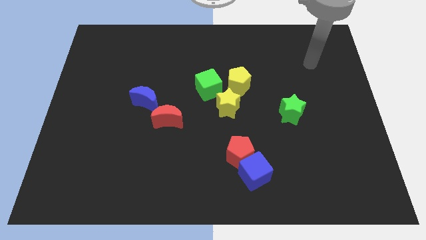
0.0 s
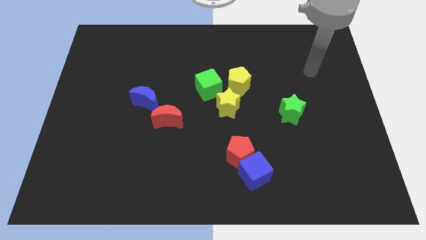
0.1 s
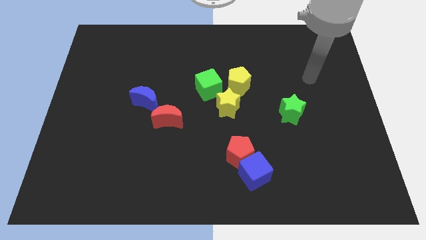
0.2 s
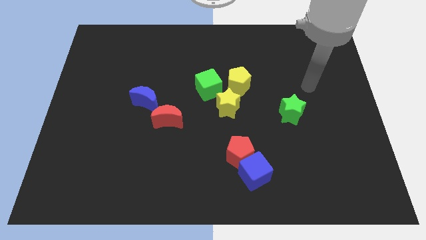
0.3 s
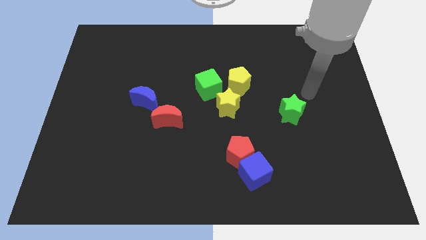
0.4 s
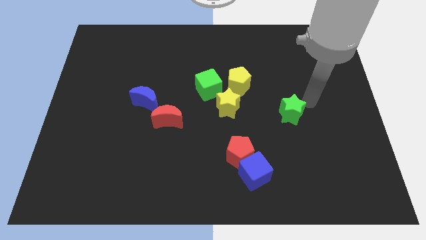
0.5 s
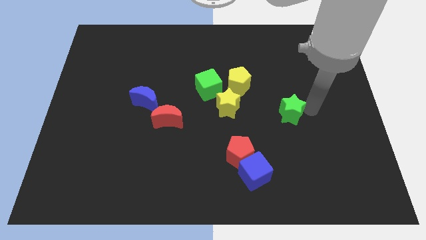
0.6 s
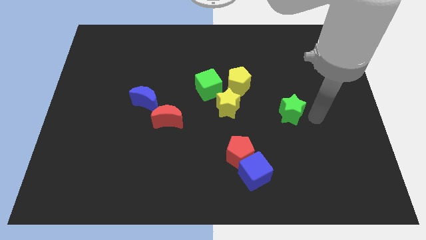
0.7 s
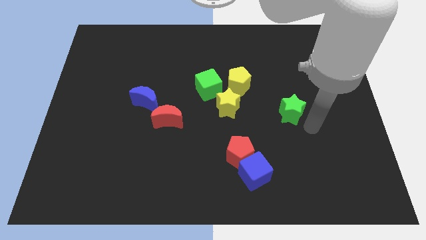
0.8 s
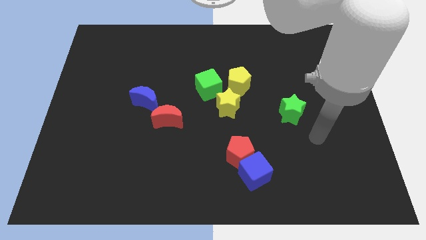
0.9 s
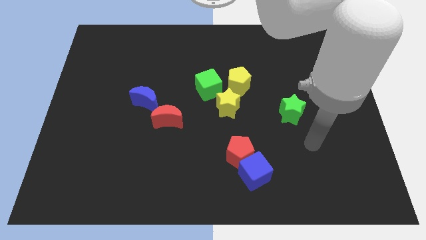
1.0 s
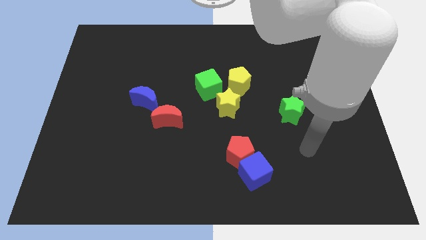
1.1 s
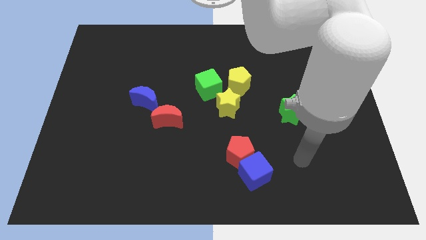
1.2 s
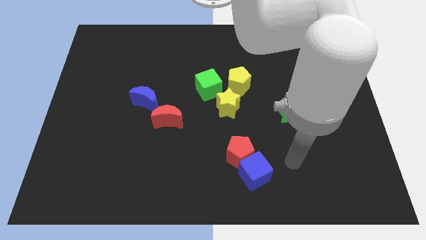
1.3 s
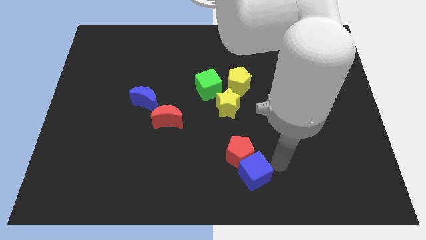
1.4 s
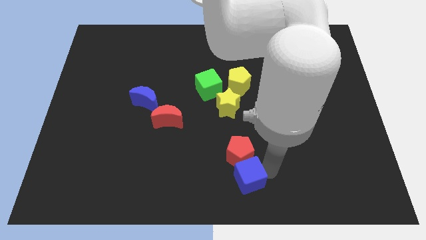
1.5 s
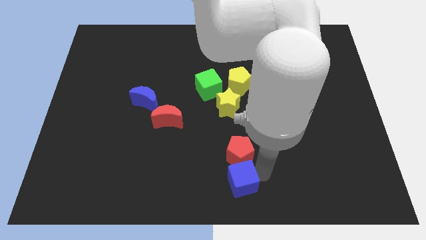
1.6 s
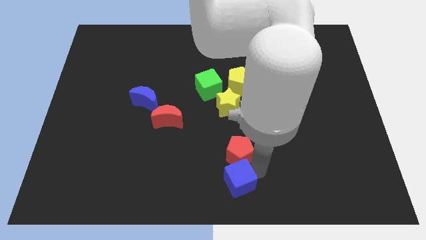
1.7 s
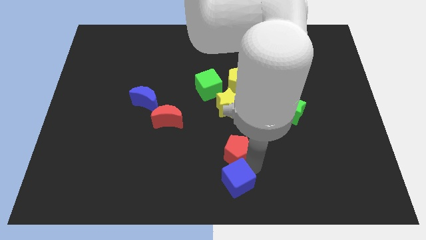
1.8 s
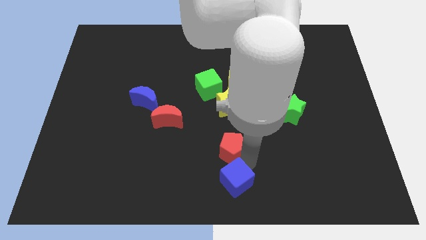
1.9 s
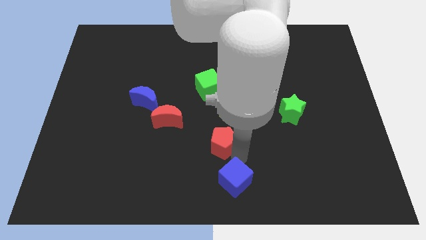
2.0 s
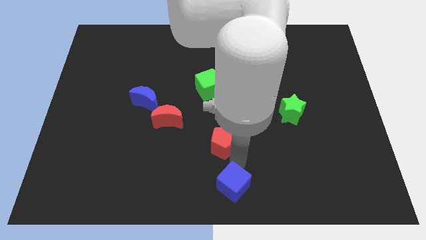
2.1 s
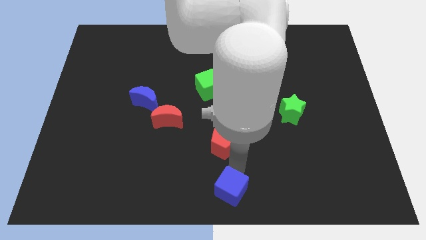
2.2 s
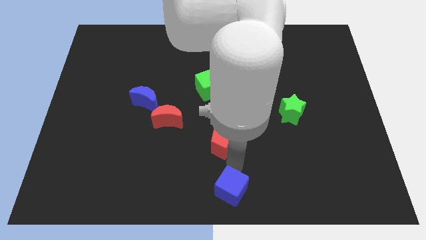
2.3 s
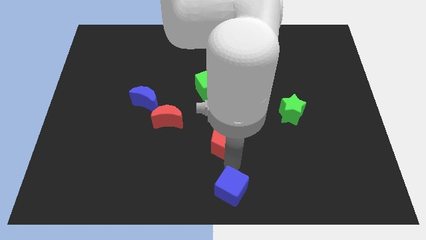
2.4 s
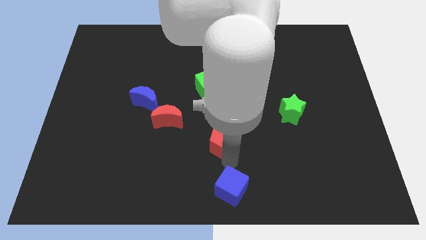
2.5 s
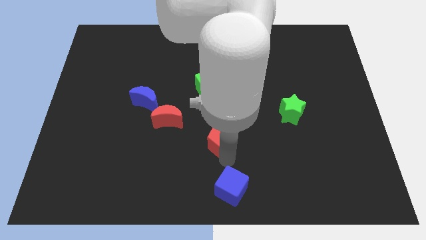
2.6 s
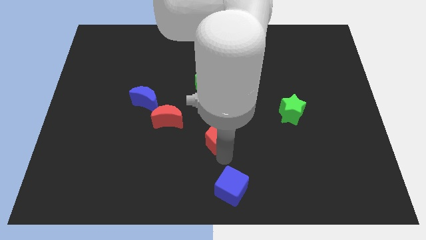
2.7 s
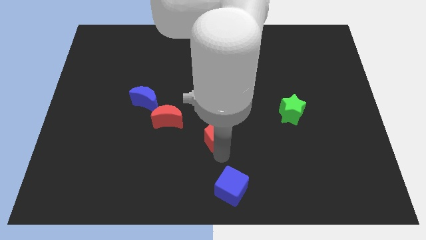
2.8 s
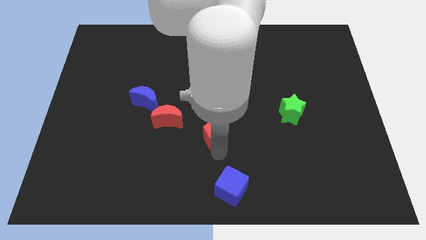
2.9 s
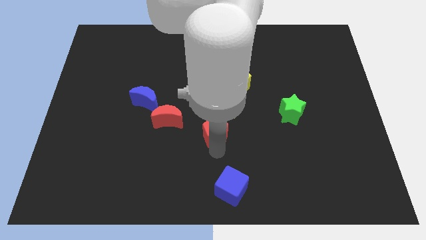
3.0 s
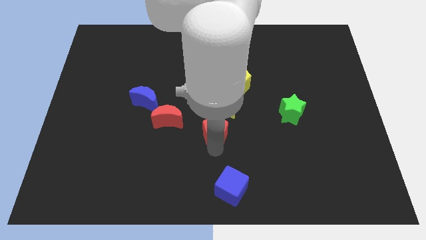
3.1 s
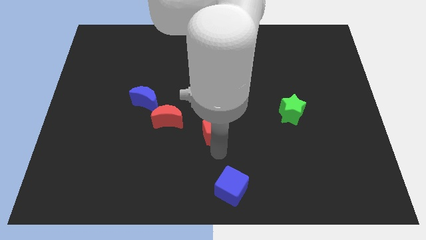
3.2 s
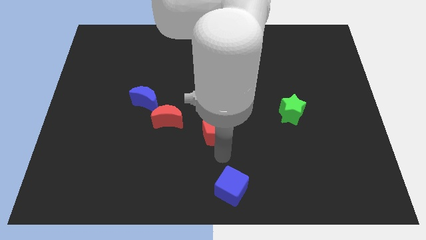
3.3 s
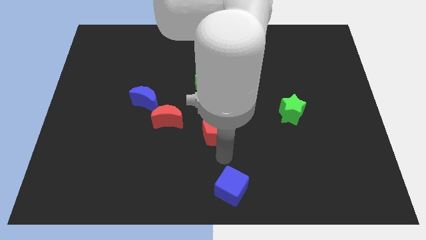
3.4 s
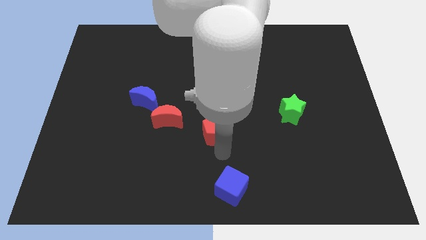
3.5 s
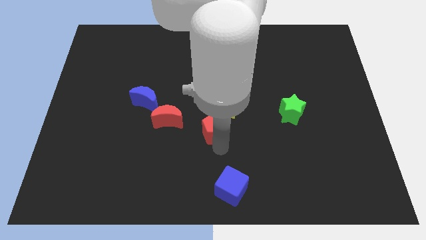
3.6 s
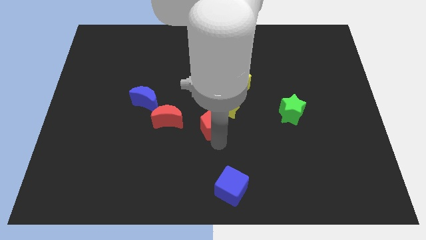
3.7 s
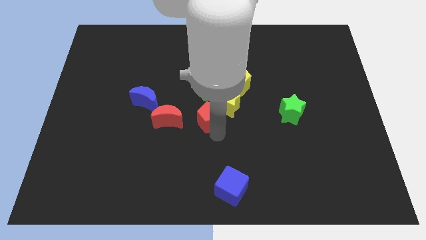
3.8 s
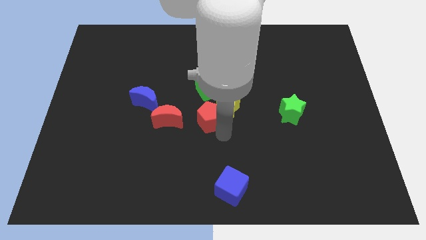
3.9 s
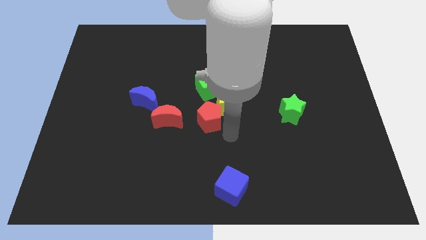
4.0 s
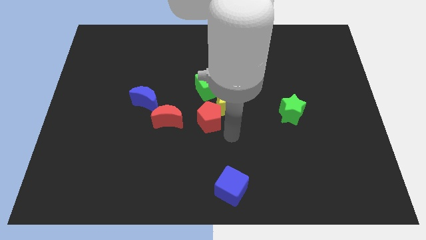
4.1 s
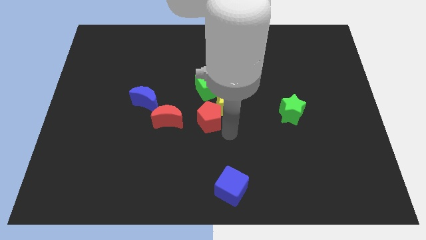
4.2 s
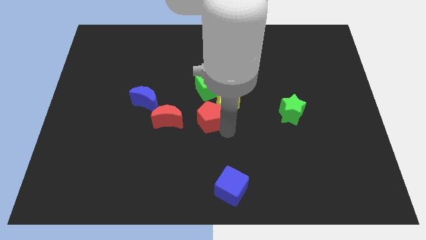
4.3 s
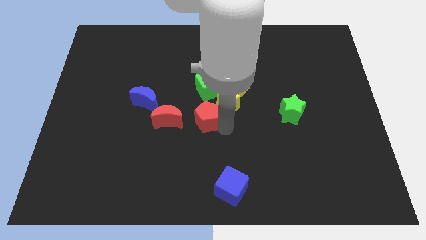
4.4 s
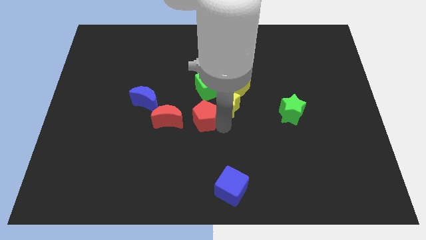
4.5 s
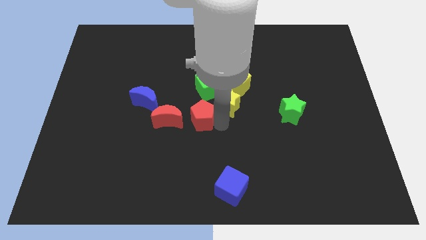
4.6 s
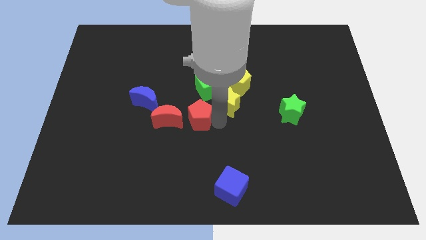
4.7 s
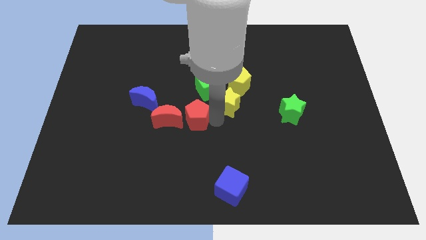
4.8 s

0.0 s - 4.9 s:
put the red pentagon to the bottom left of the green cube

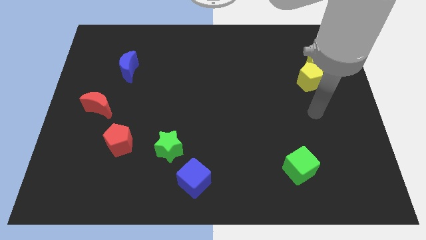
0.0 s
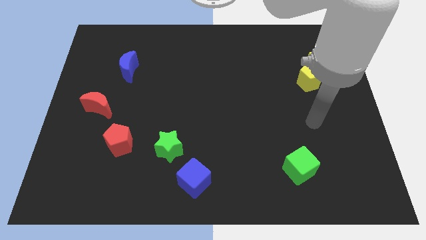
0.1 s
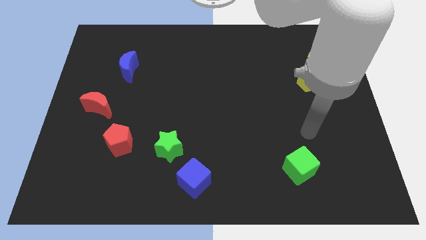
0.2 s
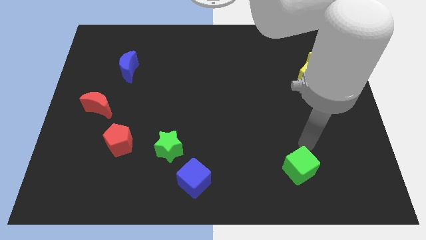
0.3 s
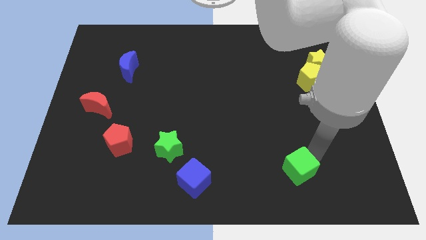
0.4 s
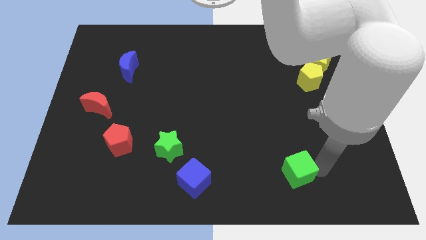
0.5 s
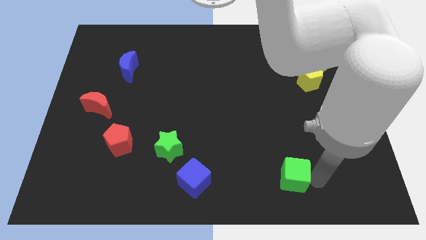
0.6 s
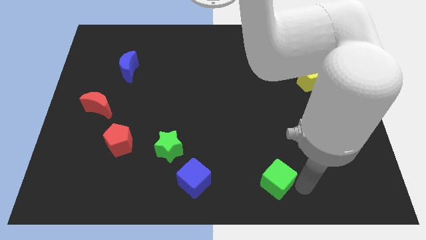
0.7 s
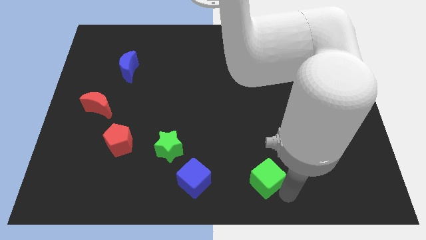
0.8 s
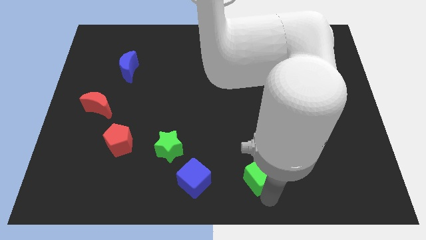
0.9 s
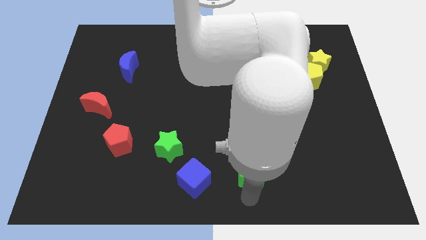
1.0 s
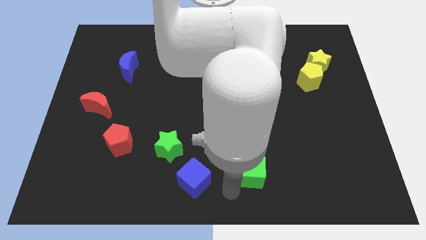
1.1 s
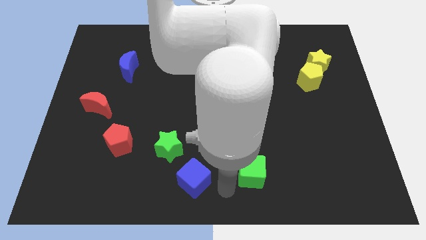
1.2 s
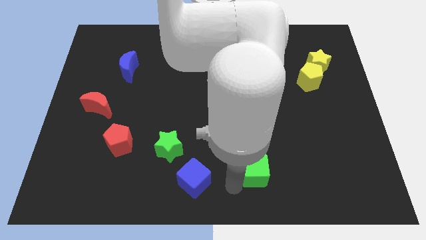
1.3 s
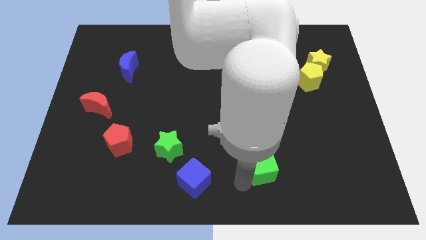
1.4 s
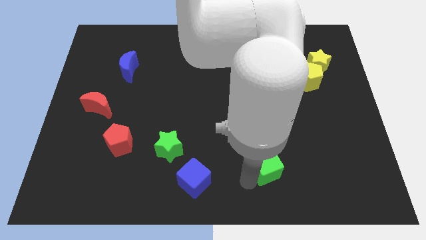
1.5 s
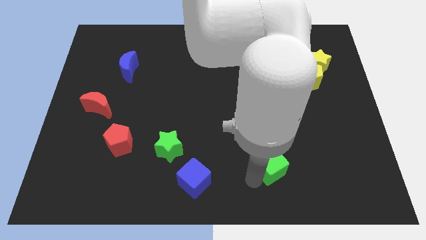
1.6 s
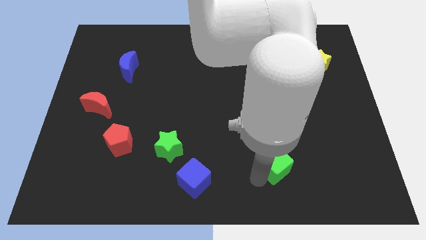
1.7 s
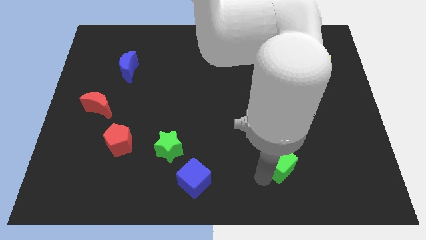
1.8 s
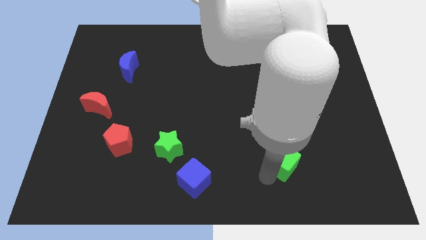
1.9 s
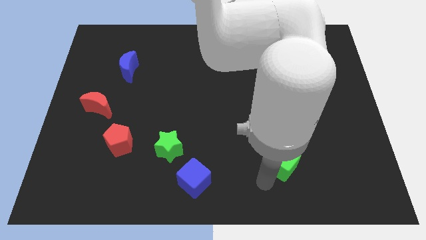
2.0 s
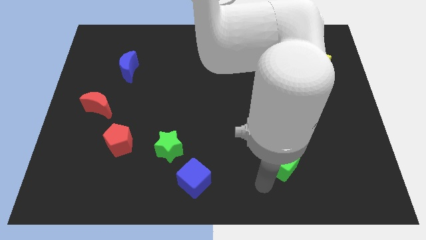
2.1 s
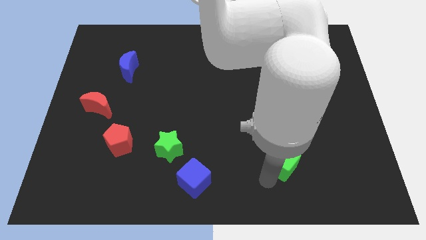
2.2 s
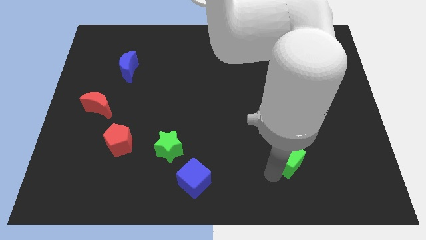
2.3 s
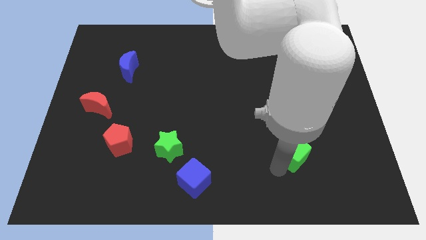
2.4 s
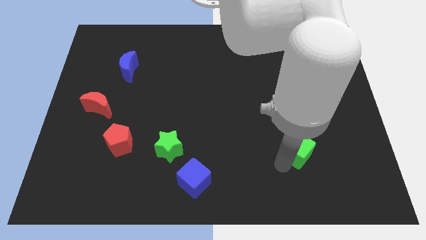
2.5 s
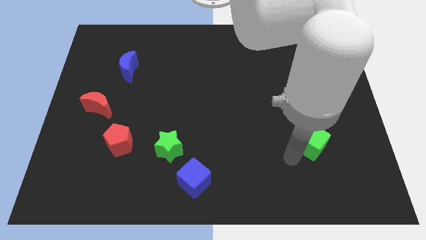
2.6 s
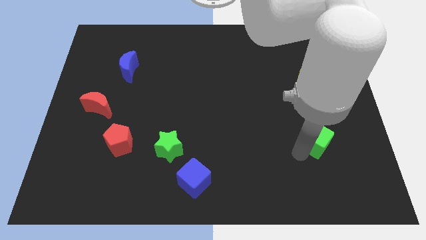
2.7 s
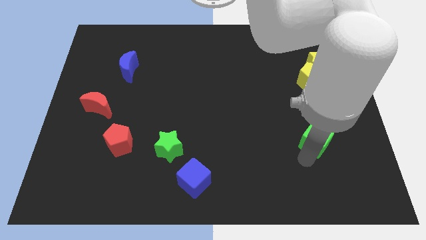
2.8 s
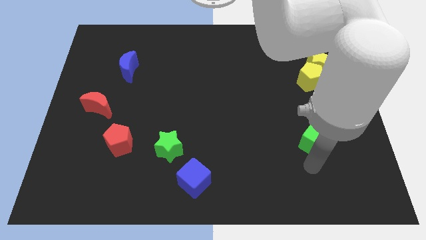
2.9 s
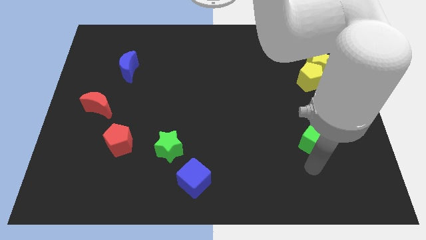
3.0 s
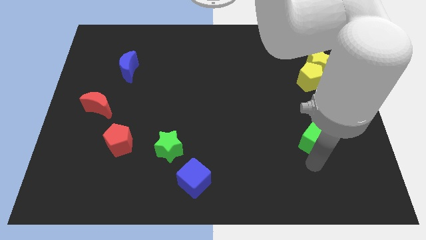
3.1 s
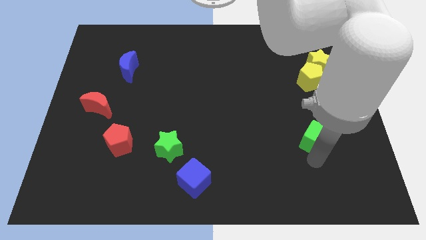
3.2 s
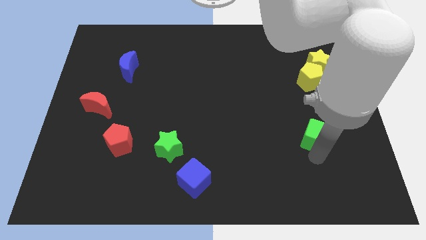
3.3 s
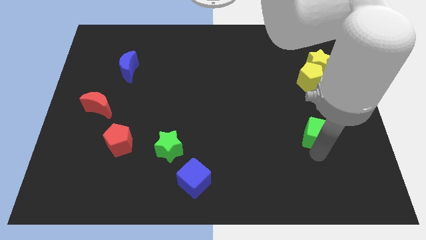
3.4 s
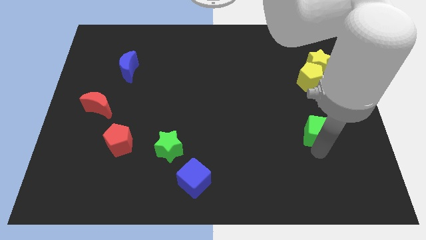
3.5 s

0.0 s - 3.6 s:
move the green cube to the bottom of the yellow pentagon
